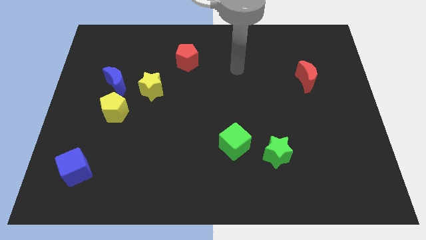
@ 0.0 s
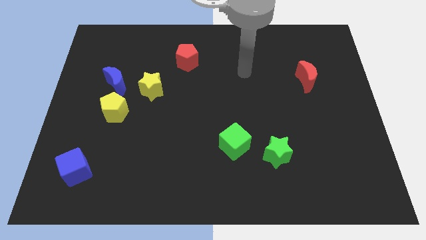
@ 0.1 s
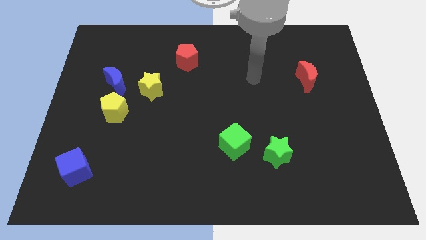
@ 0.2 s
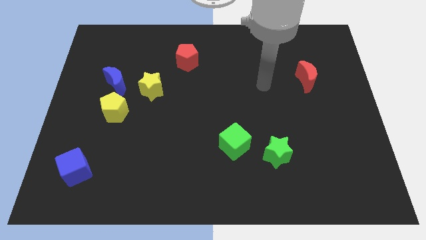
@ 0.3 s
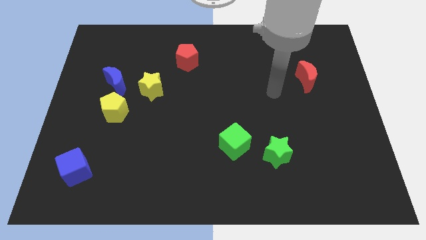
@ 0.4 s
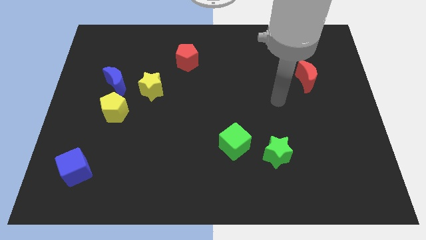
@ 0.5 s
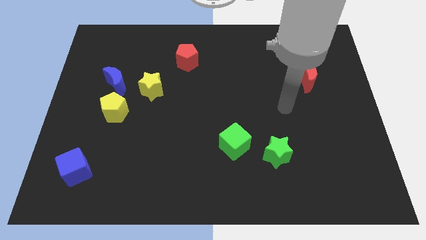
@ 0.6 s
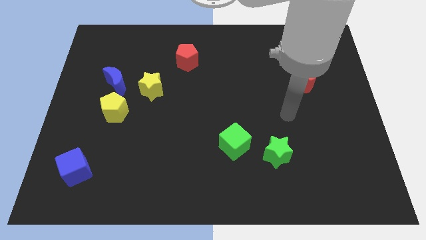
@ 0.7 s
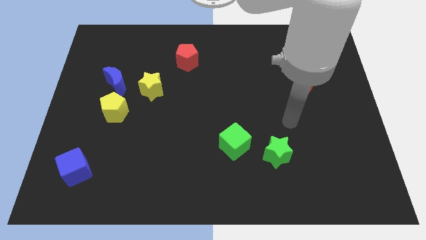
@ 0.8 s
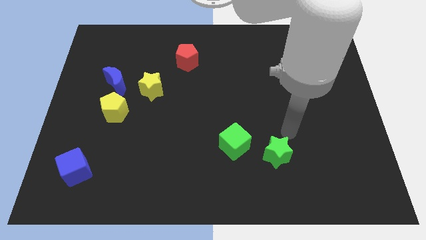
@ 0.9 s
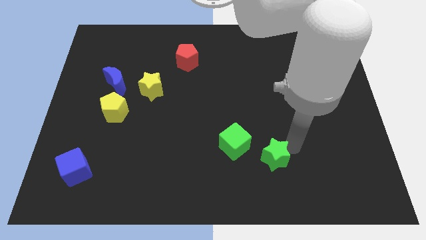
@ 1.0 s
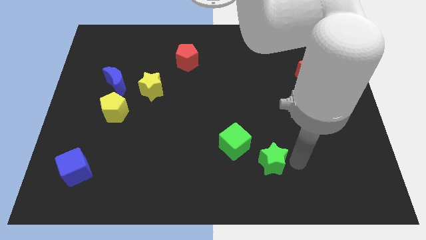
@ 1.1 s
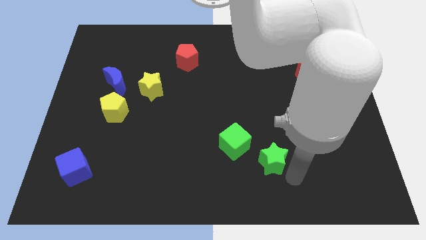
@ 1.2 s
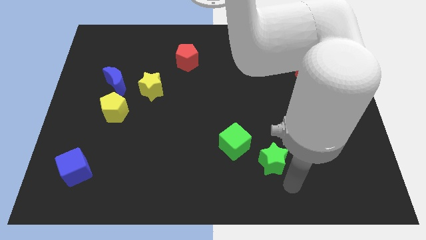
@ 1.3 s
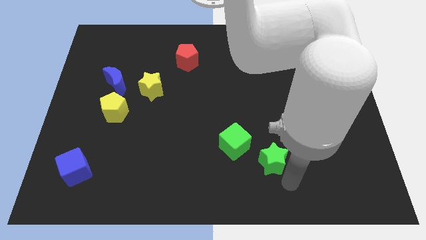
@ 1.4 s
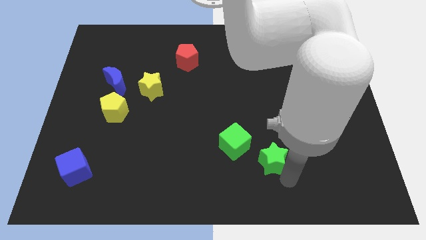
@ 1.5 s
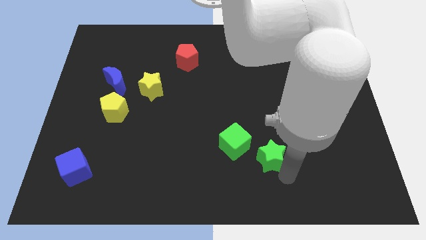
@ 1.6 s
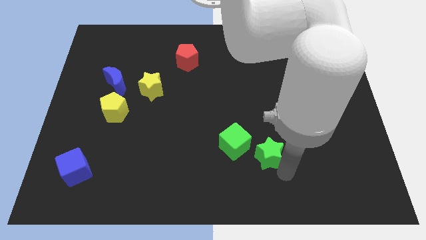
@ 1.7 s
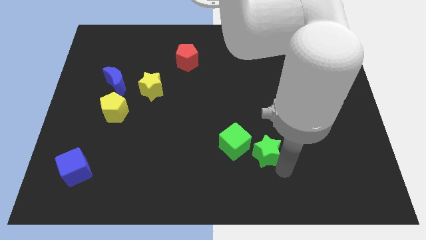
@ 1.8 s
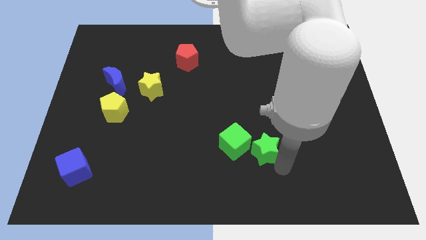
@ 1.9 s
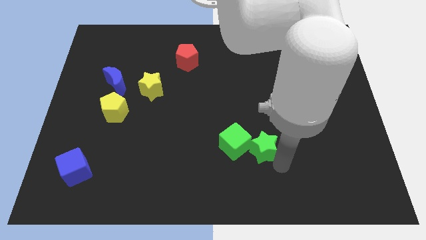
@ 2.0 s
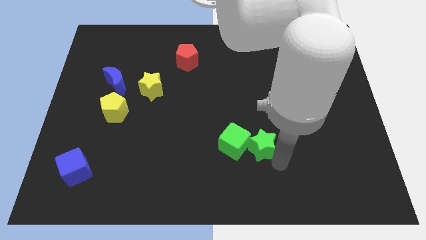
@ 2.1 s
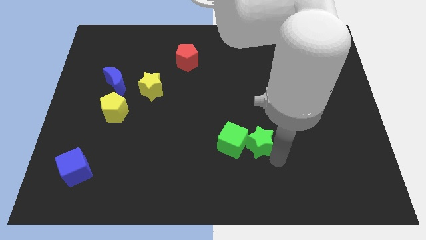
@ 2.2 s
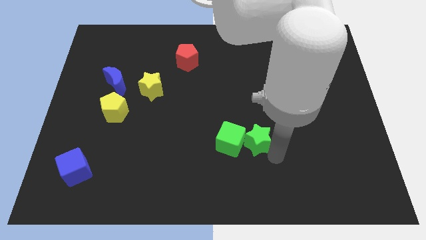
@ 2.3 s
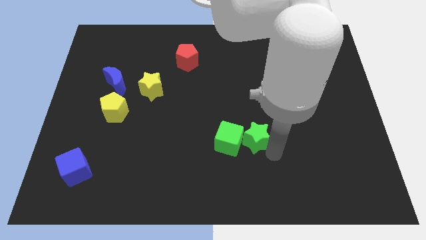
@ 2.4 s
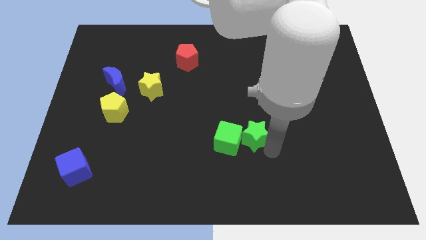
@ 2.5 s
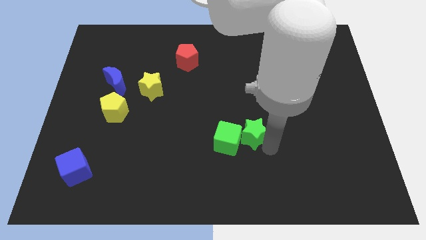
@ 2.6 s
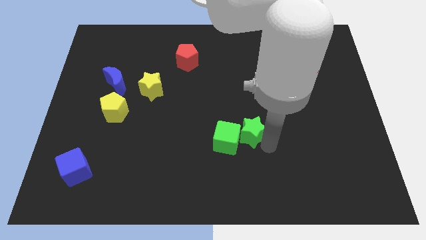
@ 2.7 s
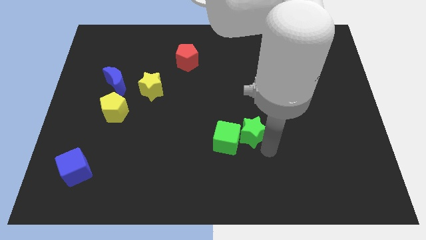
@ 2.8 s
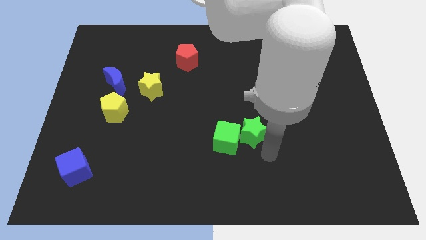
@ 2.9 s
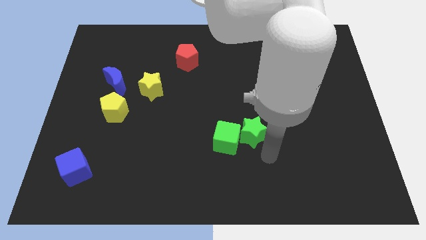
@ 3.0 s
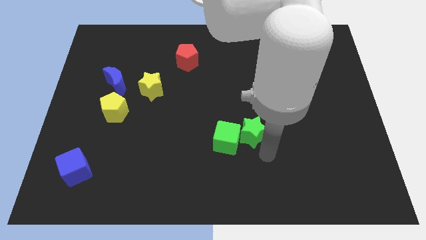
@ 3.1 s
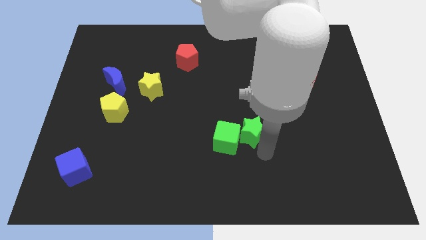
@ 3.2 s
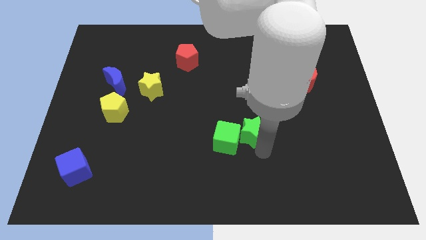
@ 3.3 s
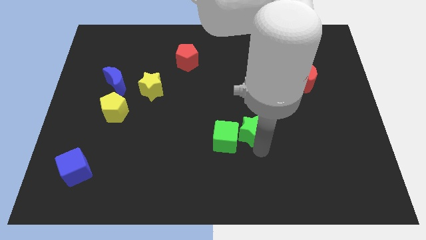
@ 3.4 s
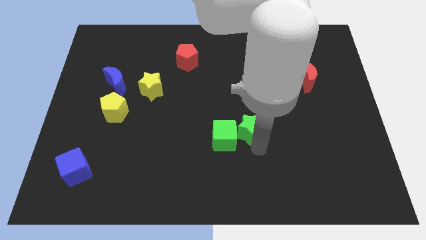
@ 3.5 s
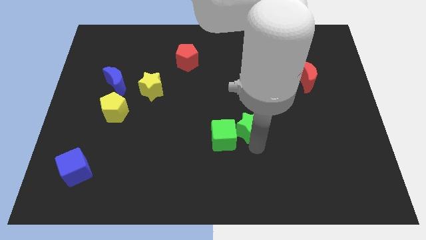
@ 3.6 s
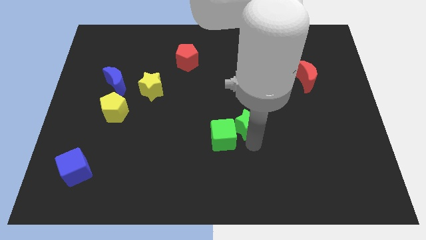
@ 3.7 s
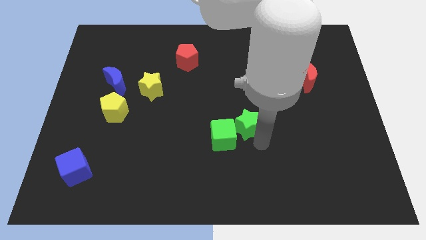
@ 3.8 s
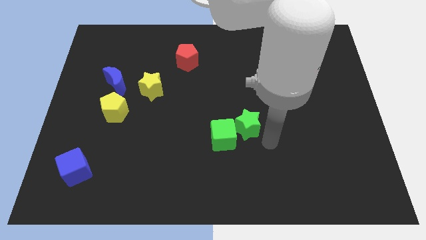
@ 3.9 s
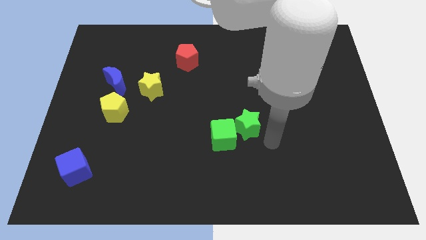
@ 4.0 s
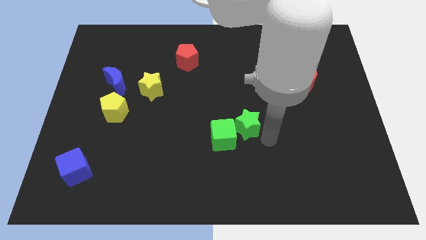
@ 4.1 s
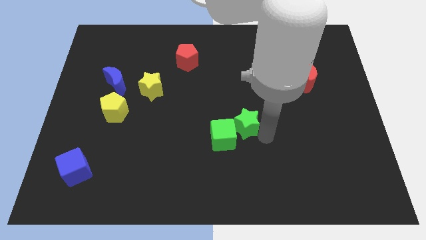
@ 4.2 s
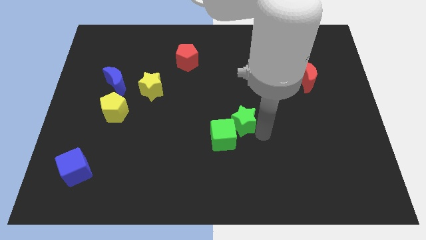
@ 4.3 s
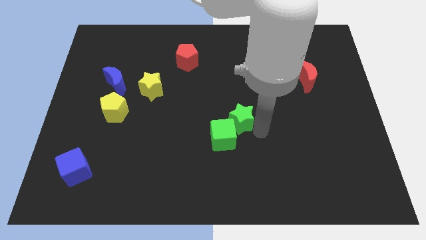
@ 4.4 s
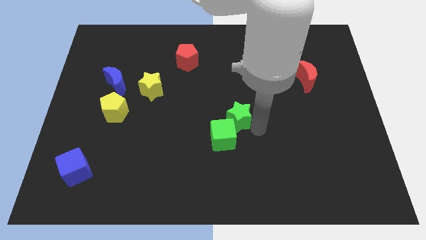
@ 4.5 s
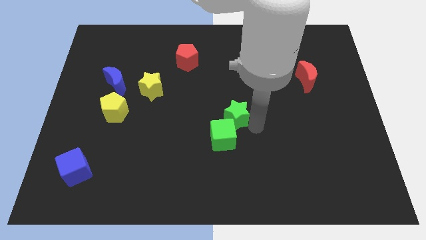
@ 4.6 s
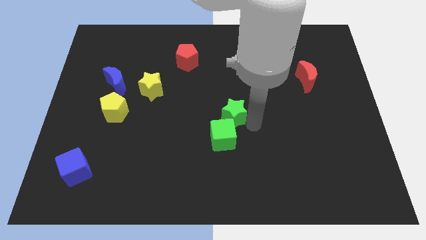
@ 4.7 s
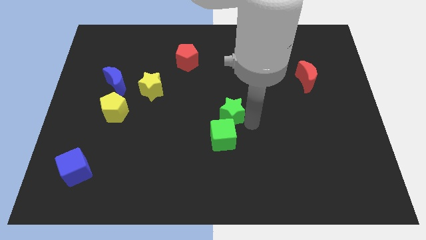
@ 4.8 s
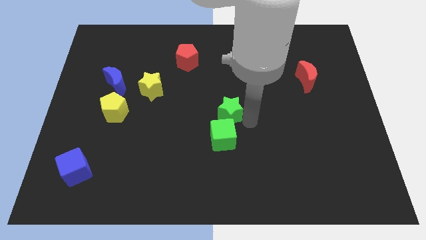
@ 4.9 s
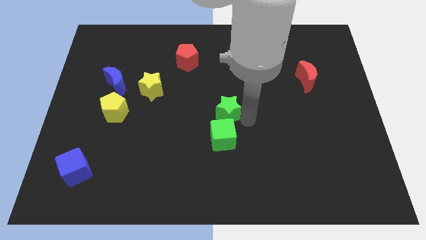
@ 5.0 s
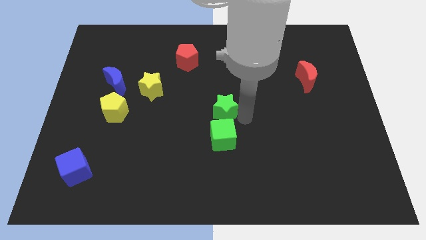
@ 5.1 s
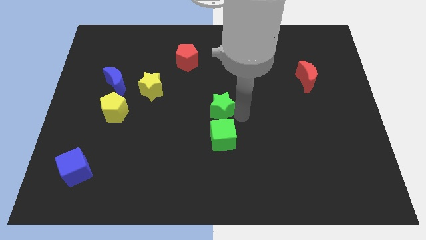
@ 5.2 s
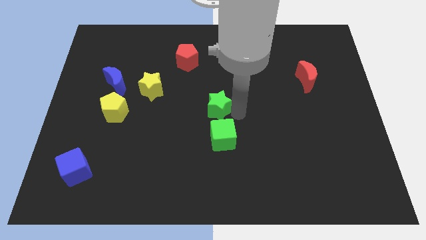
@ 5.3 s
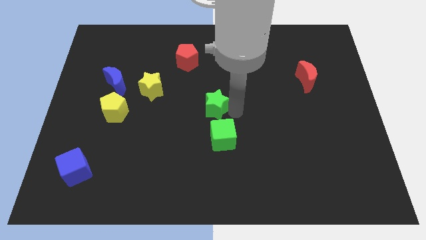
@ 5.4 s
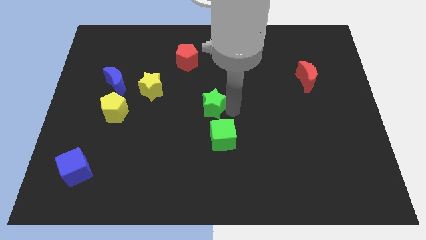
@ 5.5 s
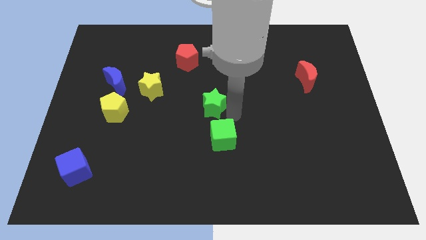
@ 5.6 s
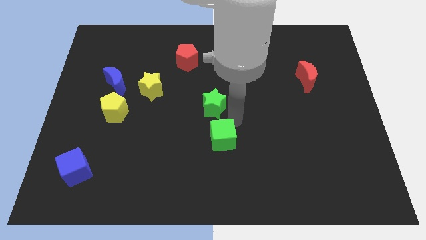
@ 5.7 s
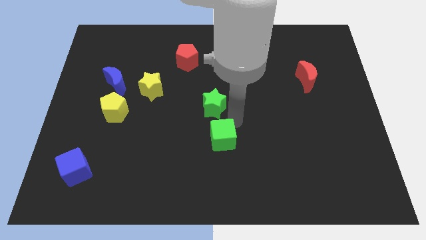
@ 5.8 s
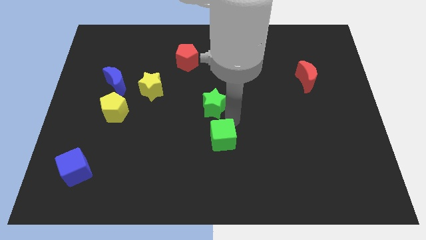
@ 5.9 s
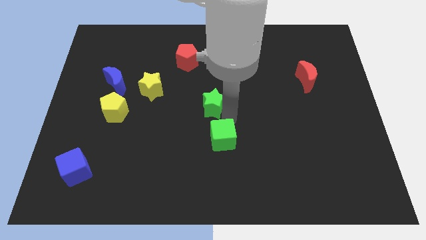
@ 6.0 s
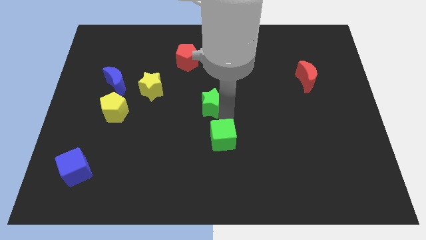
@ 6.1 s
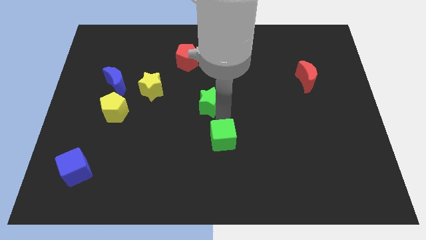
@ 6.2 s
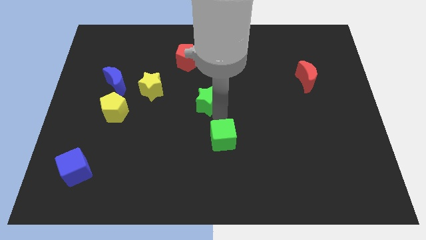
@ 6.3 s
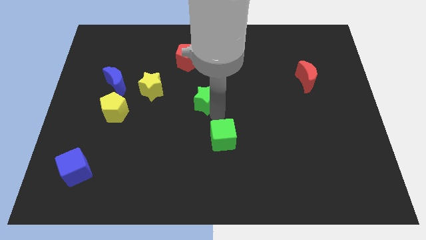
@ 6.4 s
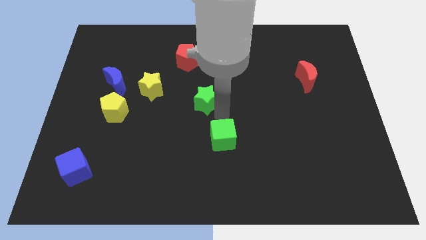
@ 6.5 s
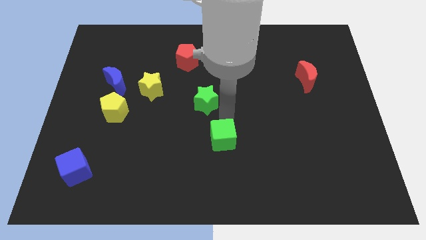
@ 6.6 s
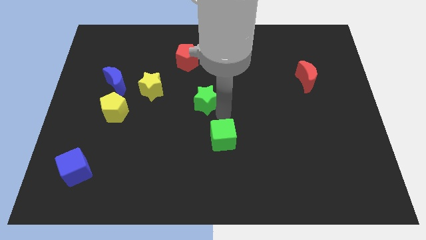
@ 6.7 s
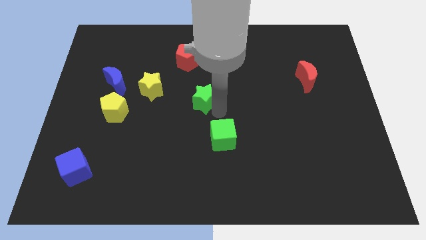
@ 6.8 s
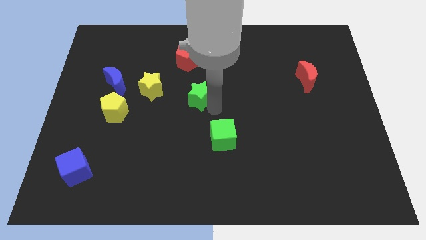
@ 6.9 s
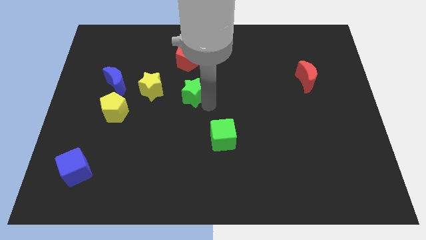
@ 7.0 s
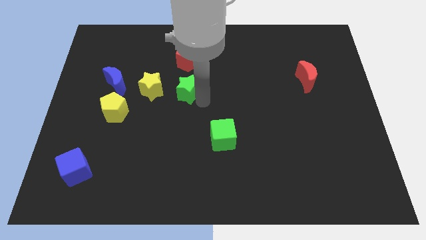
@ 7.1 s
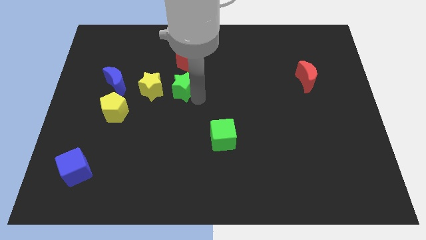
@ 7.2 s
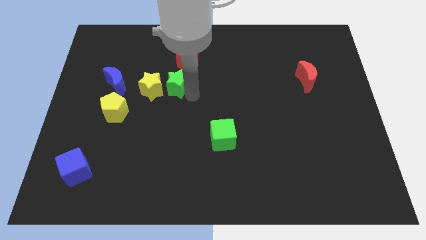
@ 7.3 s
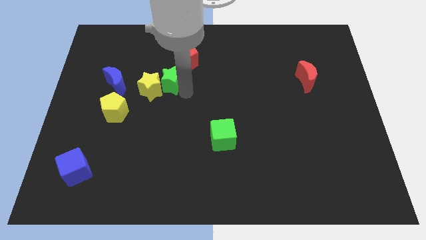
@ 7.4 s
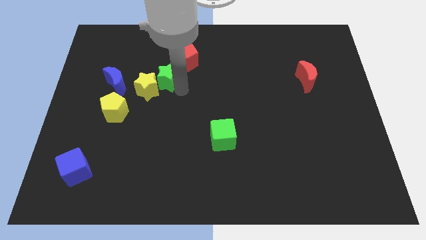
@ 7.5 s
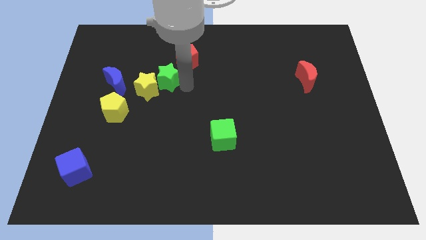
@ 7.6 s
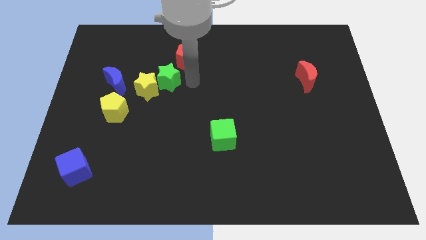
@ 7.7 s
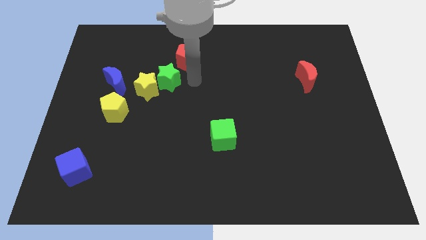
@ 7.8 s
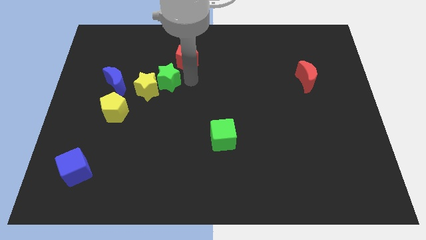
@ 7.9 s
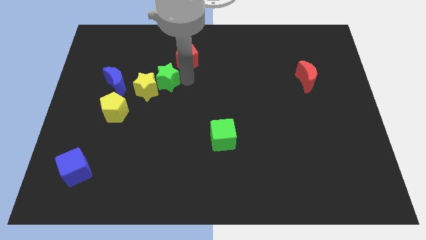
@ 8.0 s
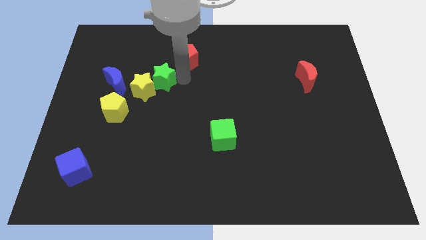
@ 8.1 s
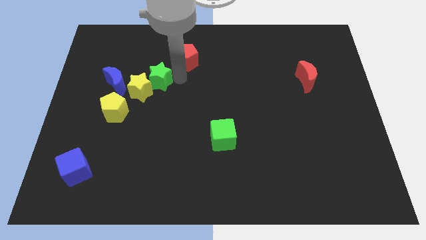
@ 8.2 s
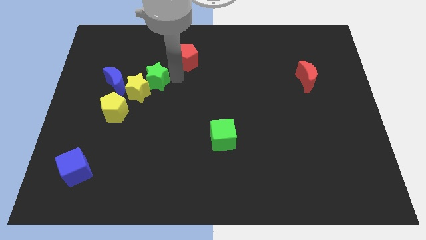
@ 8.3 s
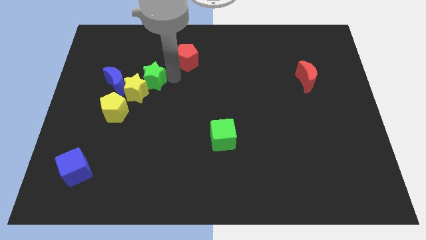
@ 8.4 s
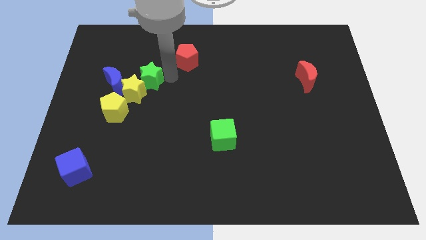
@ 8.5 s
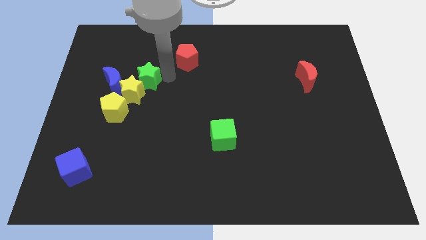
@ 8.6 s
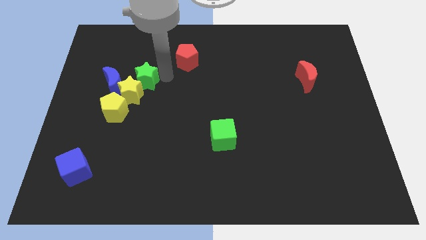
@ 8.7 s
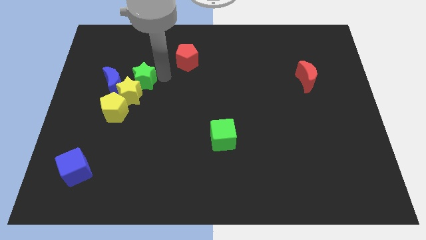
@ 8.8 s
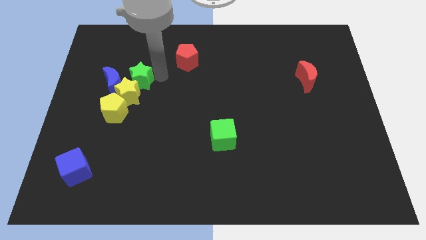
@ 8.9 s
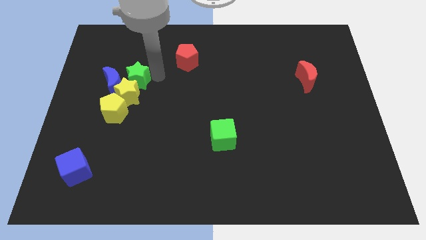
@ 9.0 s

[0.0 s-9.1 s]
slide the green star to the blue moon
